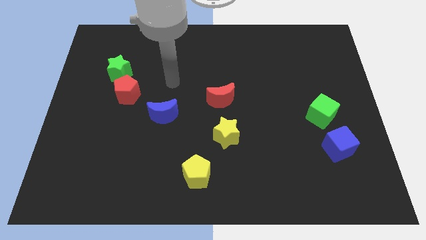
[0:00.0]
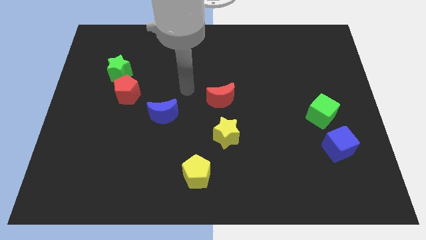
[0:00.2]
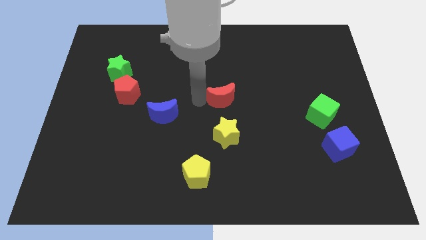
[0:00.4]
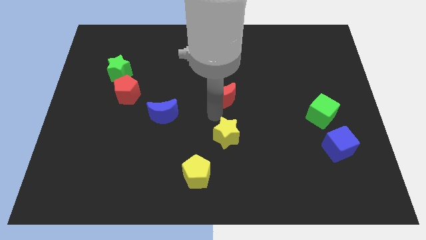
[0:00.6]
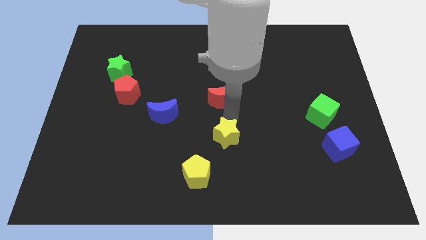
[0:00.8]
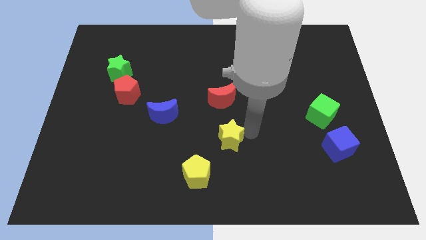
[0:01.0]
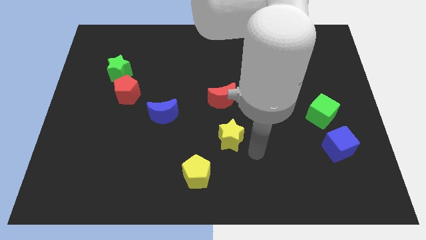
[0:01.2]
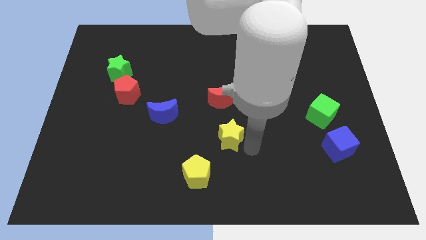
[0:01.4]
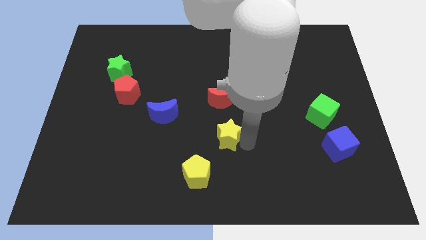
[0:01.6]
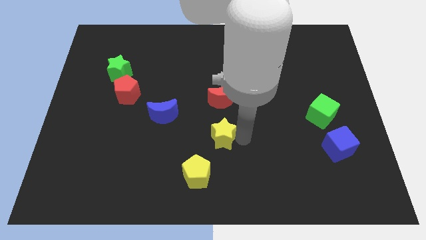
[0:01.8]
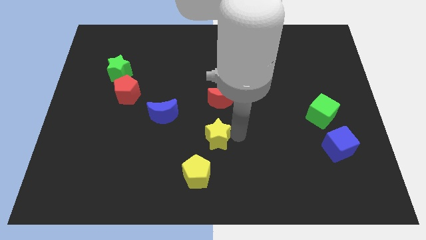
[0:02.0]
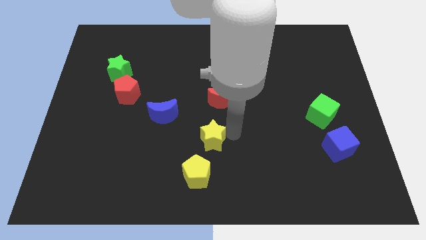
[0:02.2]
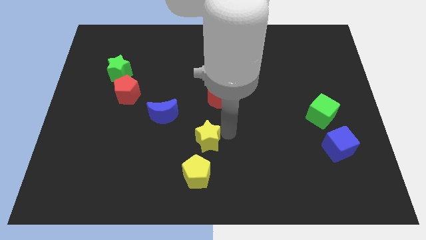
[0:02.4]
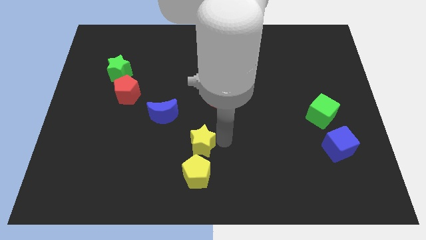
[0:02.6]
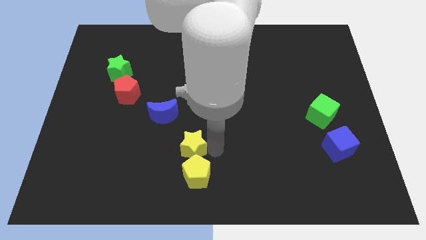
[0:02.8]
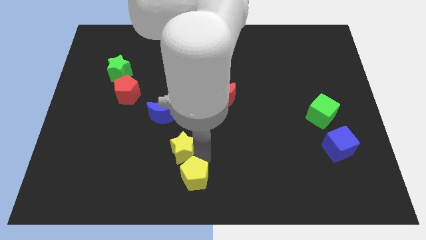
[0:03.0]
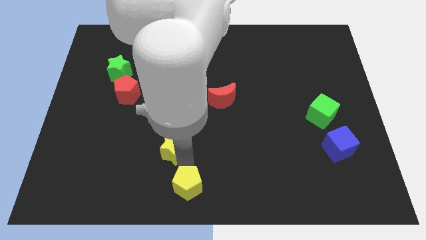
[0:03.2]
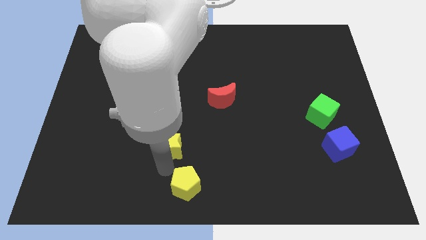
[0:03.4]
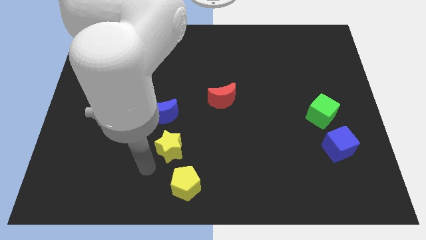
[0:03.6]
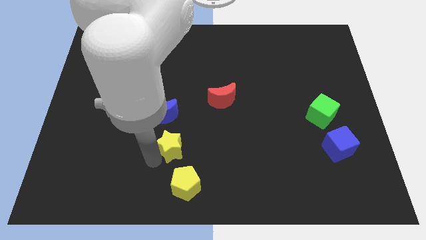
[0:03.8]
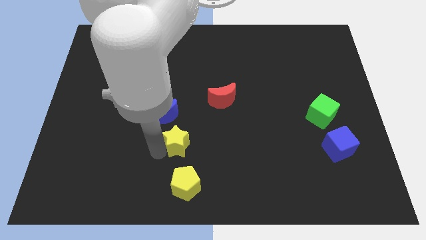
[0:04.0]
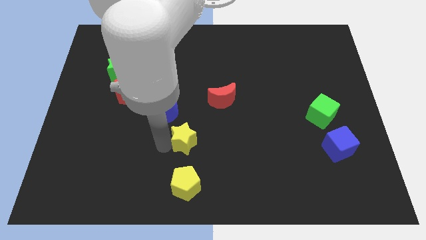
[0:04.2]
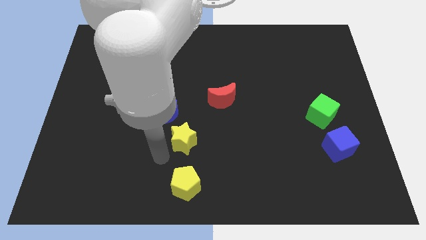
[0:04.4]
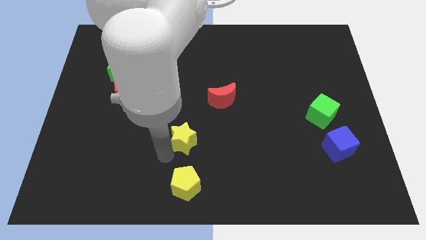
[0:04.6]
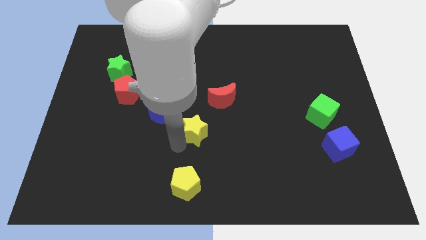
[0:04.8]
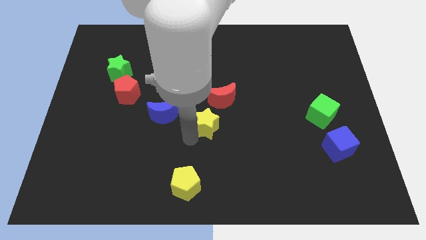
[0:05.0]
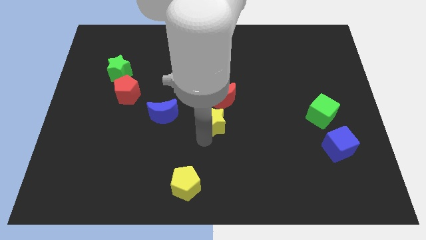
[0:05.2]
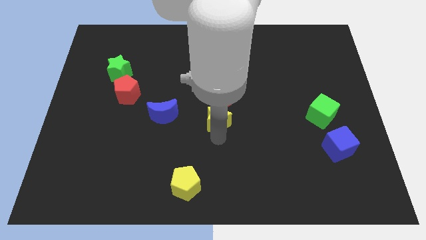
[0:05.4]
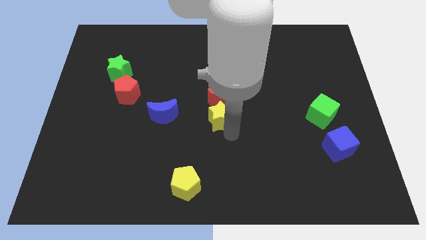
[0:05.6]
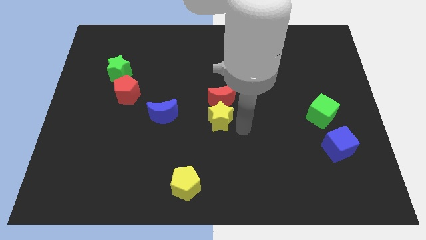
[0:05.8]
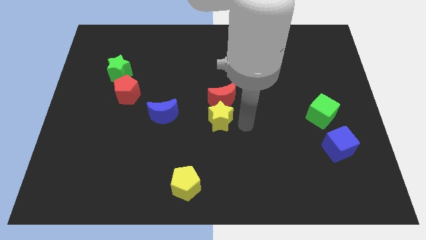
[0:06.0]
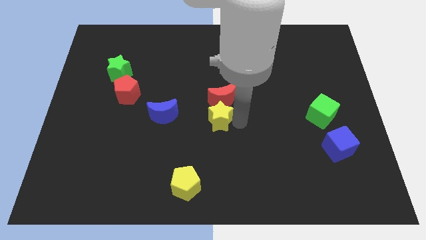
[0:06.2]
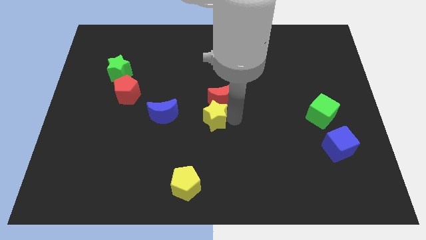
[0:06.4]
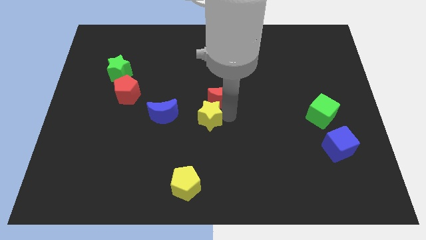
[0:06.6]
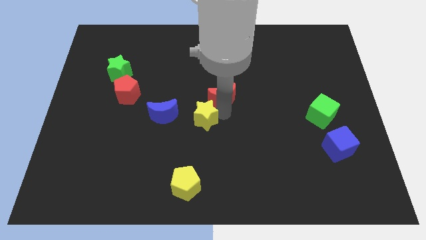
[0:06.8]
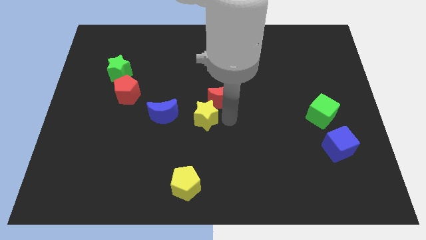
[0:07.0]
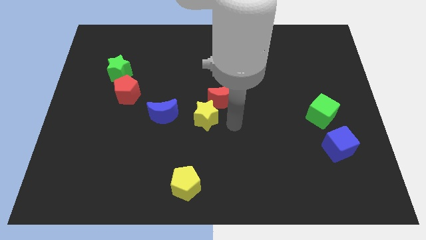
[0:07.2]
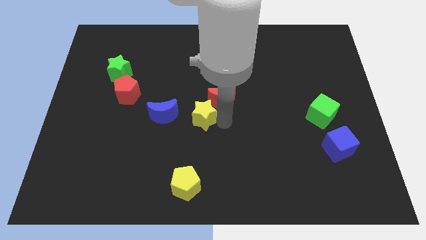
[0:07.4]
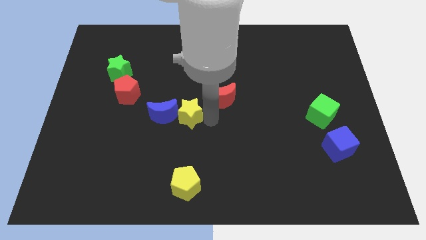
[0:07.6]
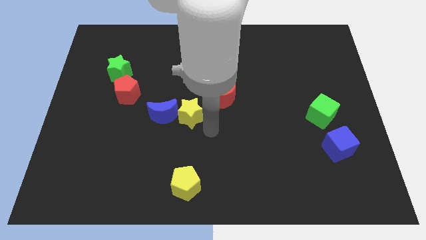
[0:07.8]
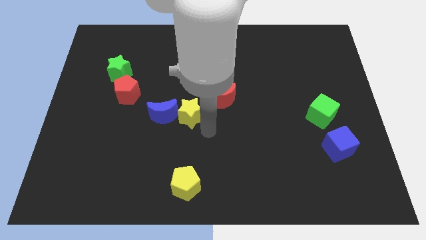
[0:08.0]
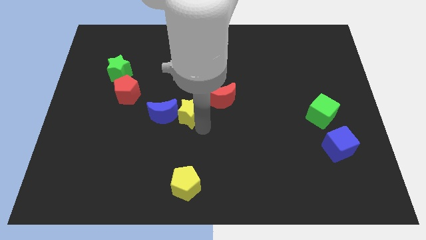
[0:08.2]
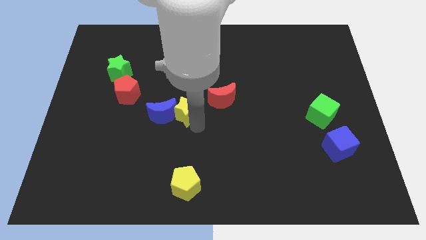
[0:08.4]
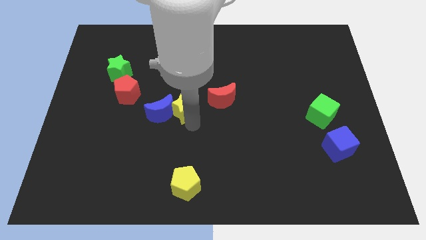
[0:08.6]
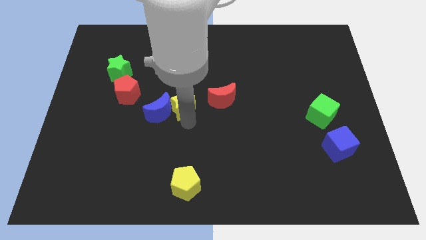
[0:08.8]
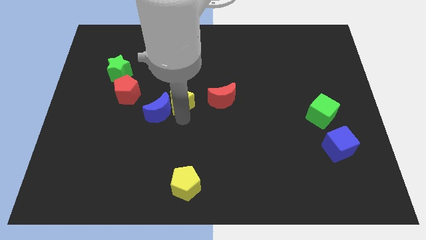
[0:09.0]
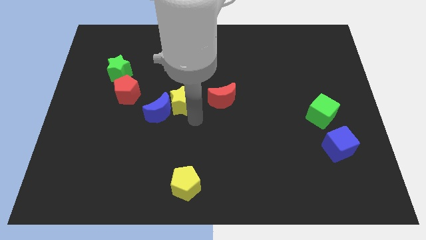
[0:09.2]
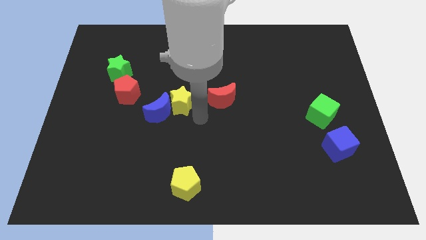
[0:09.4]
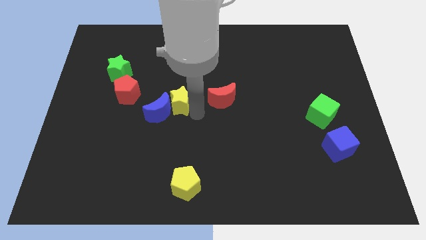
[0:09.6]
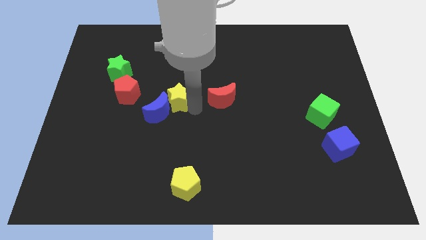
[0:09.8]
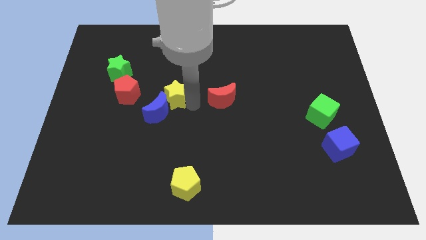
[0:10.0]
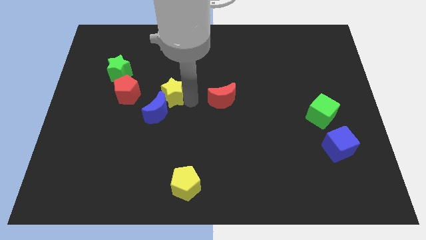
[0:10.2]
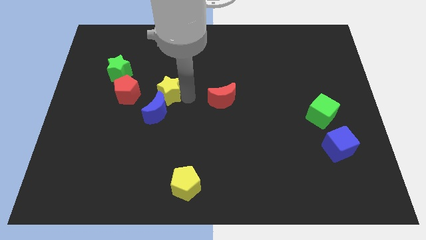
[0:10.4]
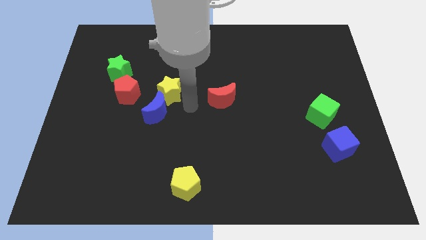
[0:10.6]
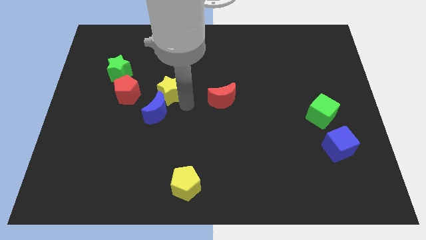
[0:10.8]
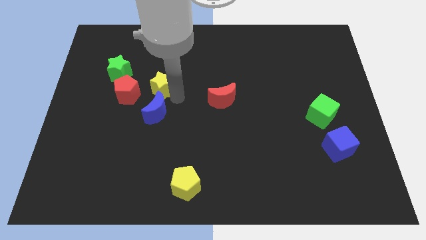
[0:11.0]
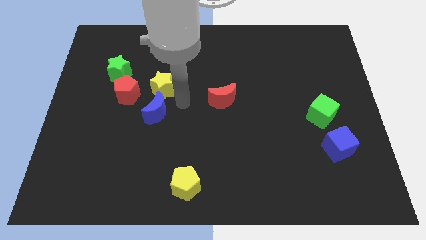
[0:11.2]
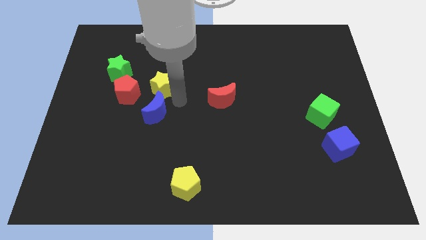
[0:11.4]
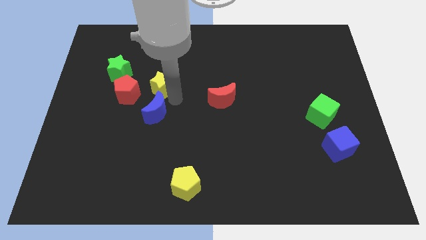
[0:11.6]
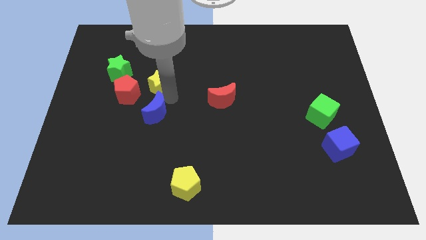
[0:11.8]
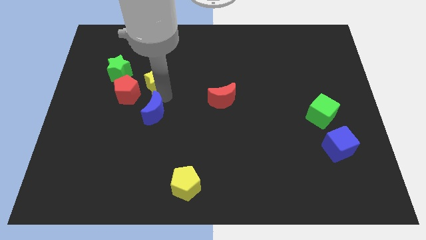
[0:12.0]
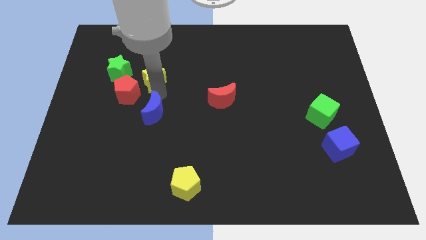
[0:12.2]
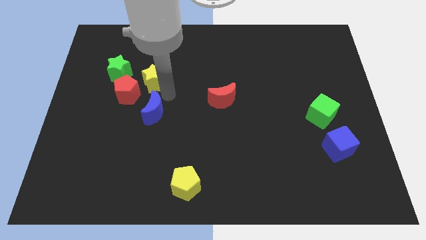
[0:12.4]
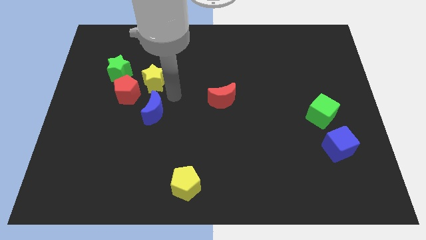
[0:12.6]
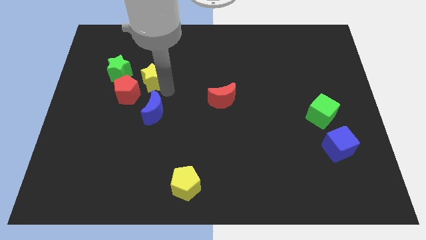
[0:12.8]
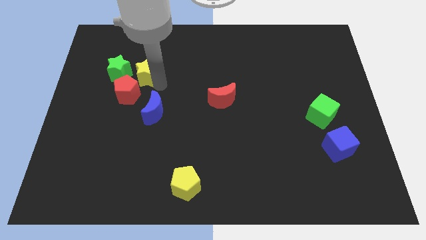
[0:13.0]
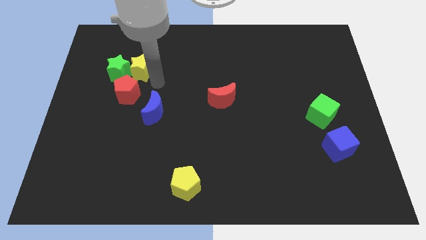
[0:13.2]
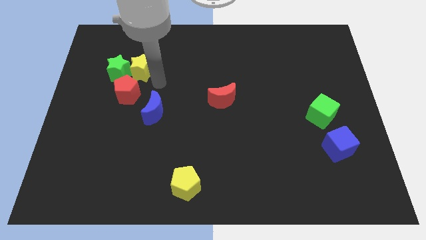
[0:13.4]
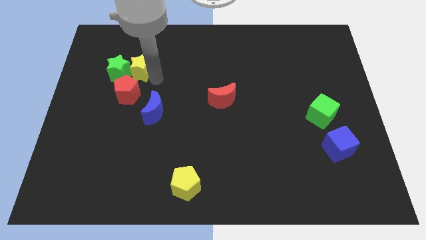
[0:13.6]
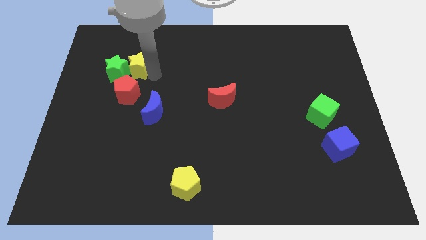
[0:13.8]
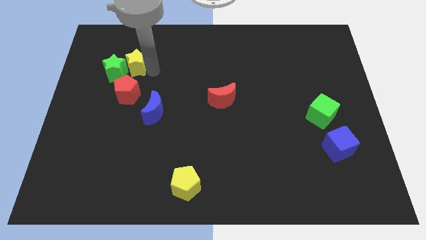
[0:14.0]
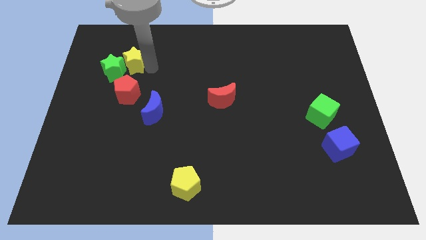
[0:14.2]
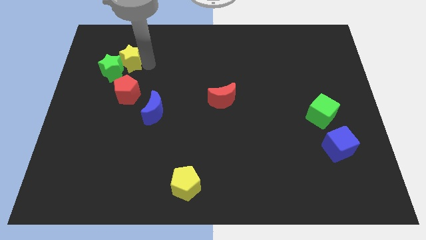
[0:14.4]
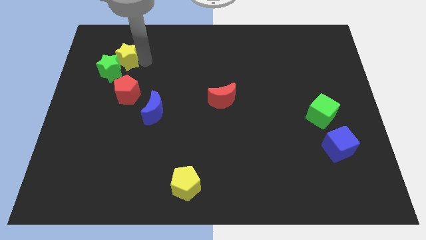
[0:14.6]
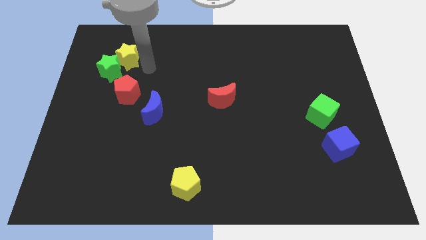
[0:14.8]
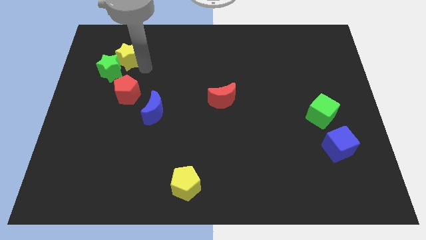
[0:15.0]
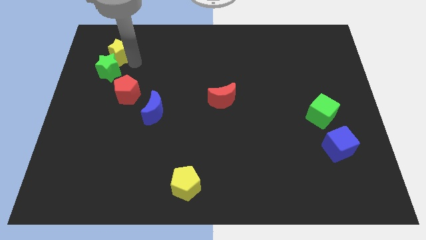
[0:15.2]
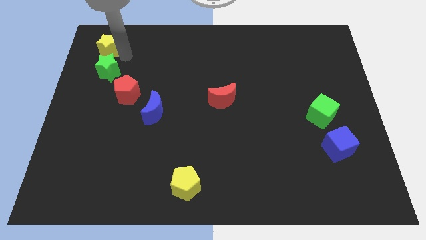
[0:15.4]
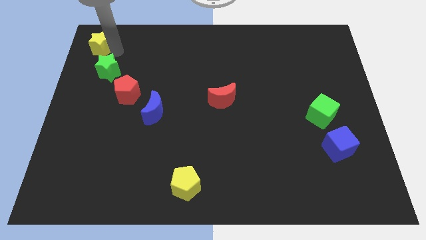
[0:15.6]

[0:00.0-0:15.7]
put the yellow star to the top left of the board
